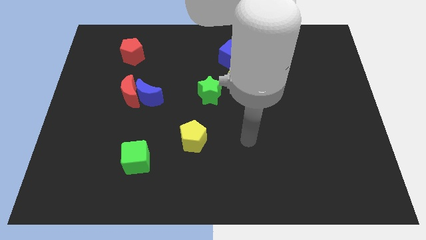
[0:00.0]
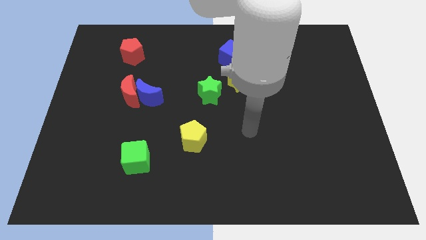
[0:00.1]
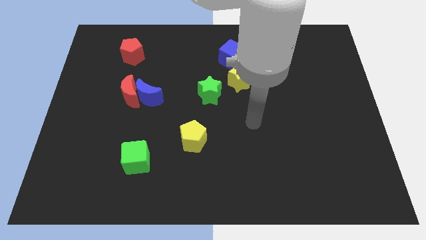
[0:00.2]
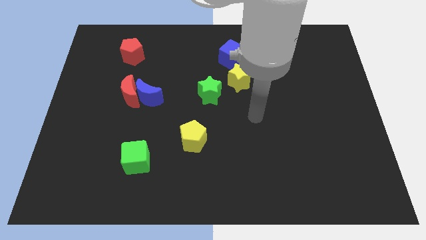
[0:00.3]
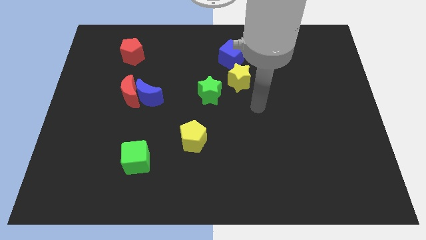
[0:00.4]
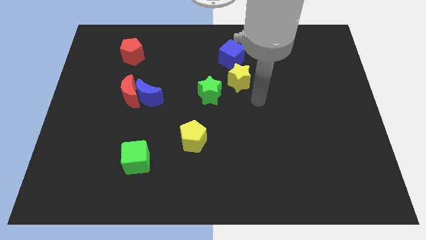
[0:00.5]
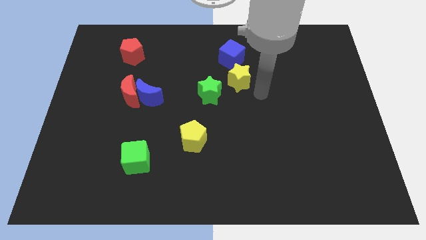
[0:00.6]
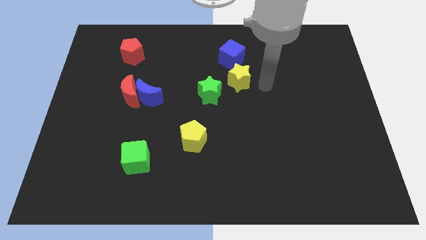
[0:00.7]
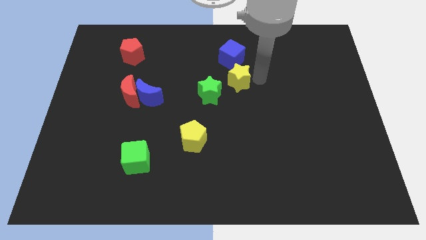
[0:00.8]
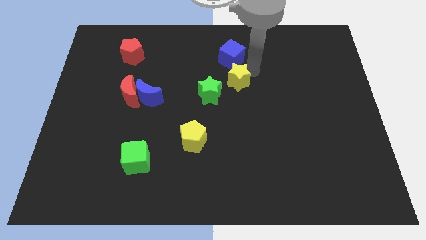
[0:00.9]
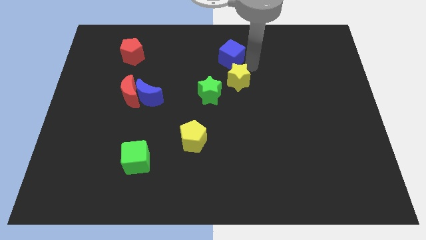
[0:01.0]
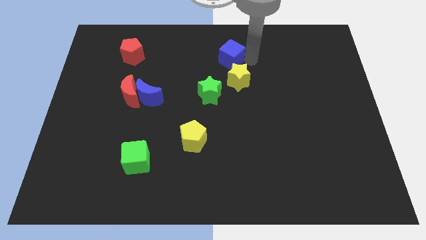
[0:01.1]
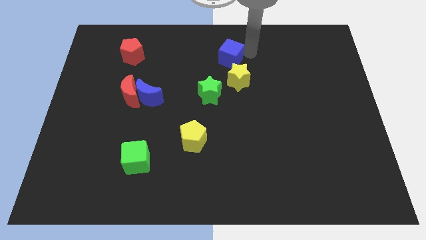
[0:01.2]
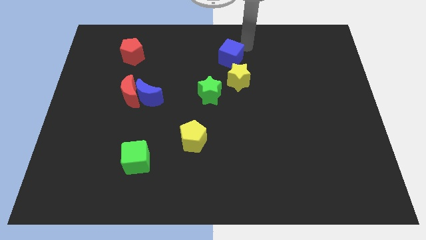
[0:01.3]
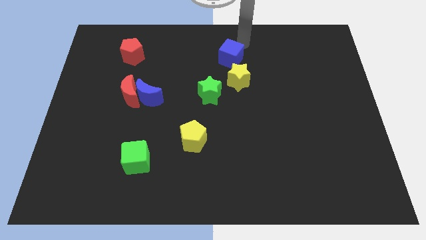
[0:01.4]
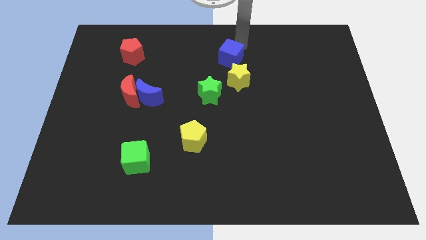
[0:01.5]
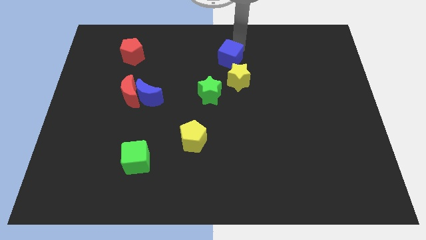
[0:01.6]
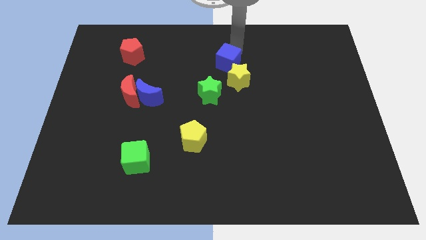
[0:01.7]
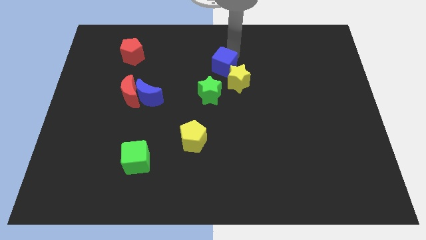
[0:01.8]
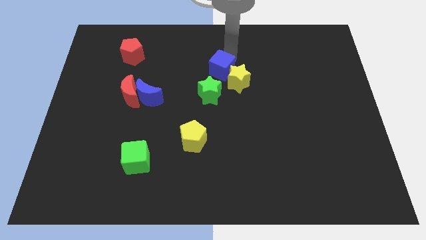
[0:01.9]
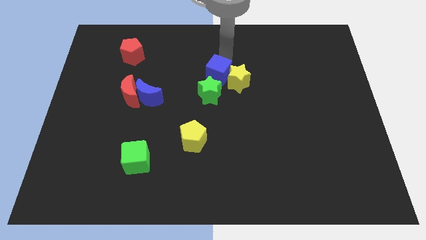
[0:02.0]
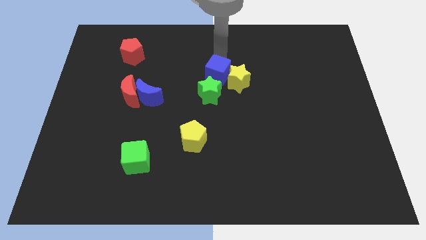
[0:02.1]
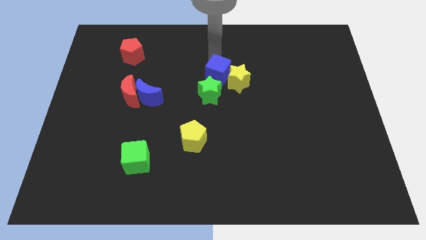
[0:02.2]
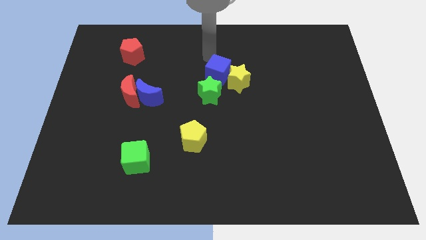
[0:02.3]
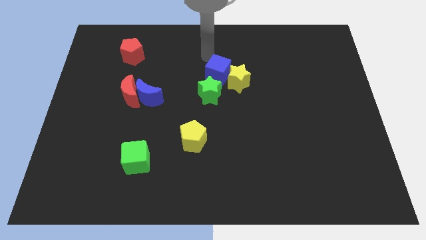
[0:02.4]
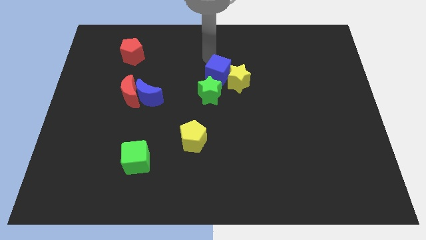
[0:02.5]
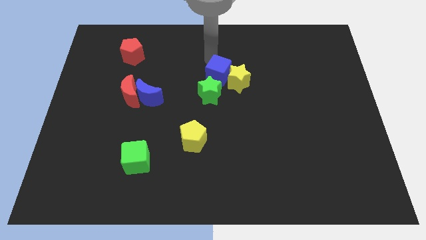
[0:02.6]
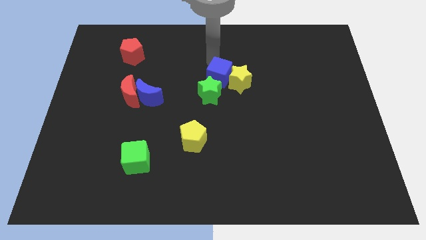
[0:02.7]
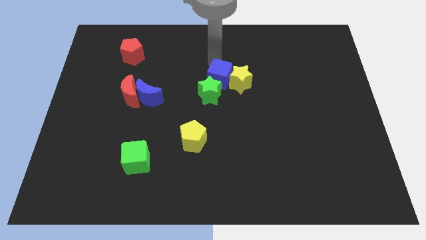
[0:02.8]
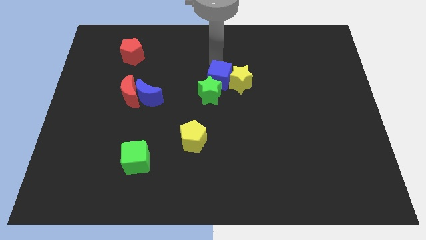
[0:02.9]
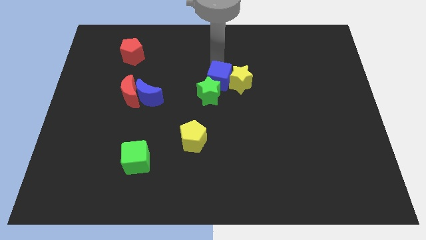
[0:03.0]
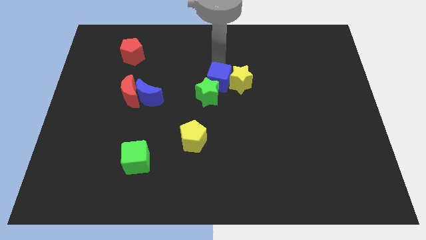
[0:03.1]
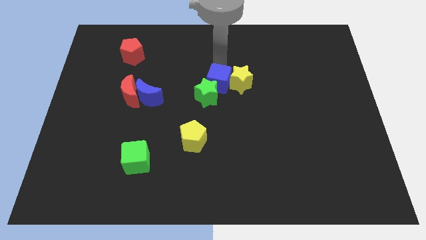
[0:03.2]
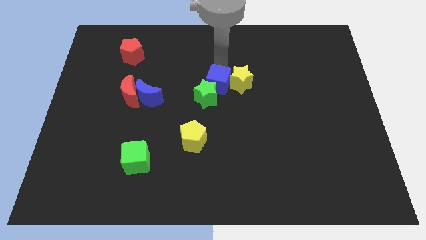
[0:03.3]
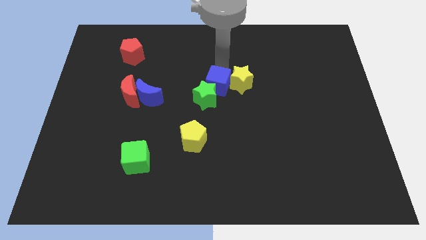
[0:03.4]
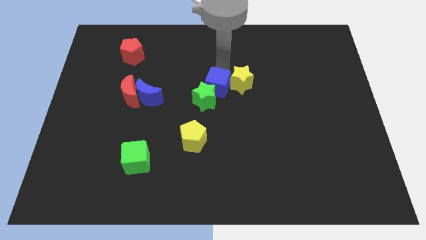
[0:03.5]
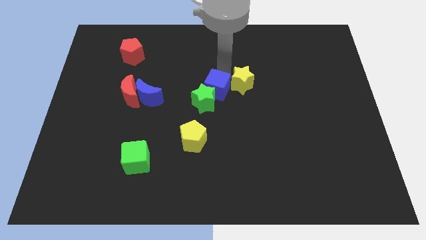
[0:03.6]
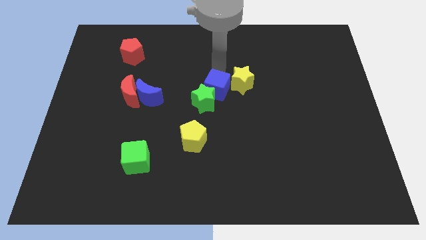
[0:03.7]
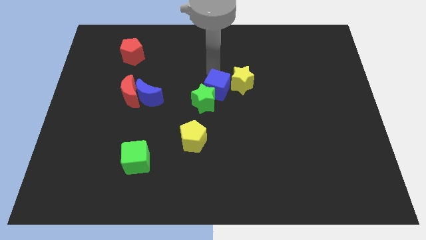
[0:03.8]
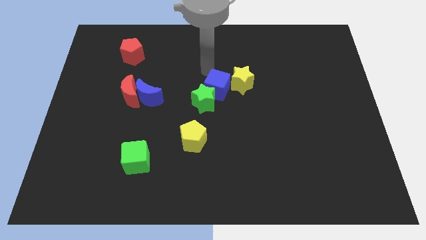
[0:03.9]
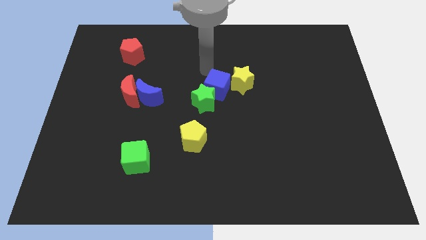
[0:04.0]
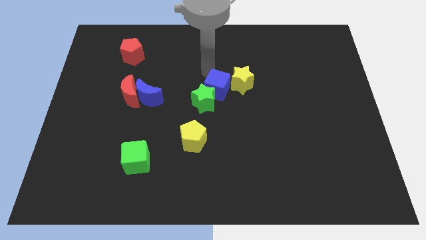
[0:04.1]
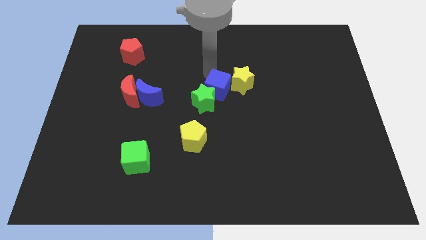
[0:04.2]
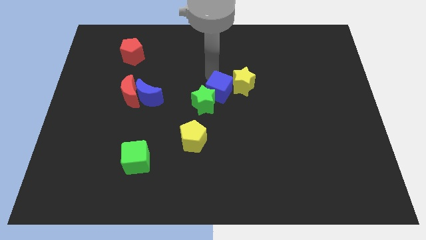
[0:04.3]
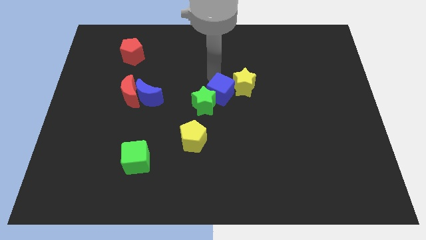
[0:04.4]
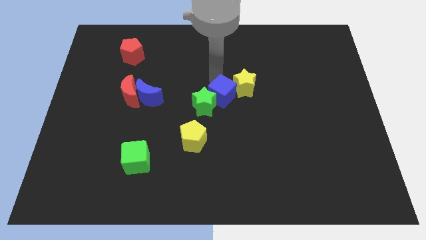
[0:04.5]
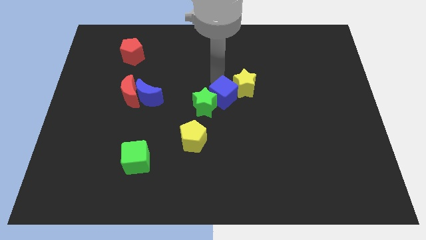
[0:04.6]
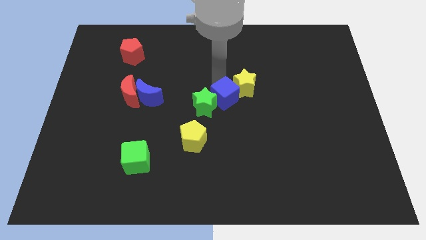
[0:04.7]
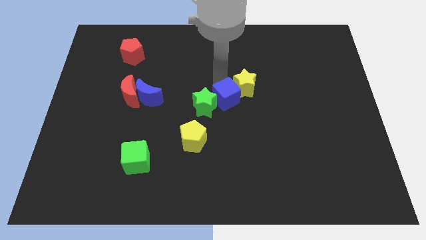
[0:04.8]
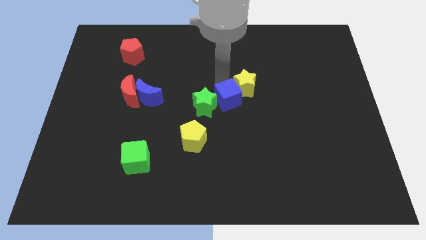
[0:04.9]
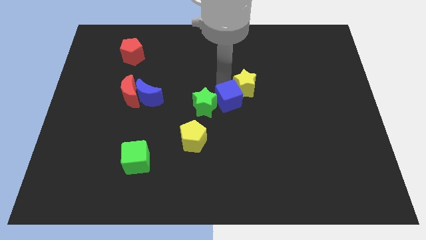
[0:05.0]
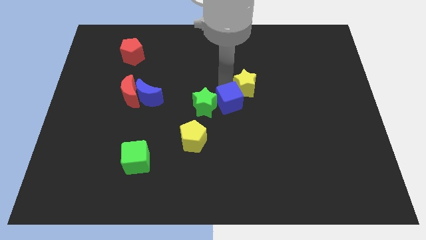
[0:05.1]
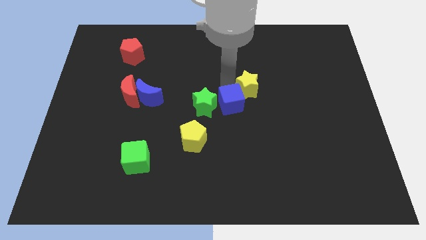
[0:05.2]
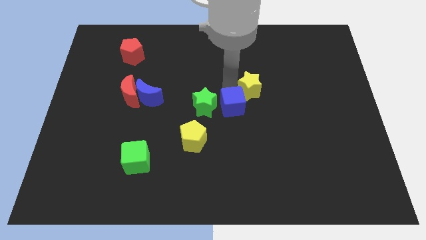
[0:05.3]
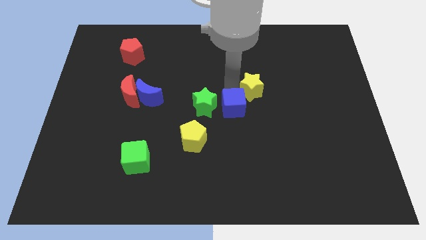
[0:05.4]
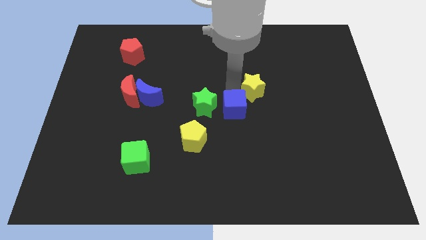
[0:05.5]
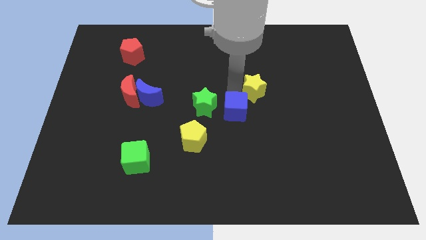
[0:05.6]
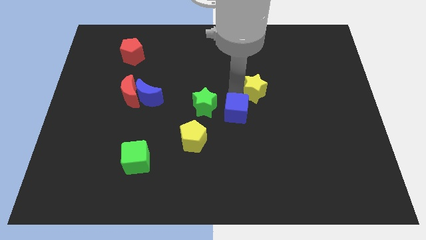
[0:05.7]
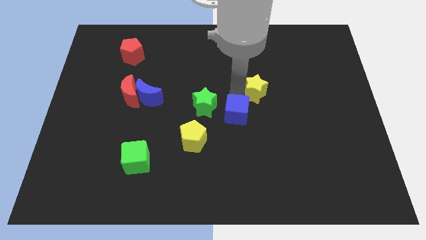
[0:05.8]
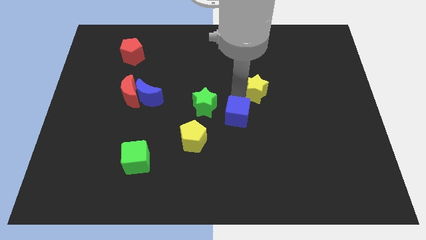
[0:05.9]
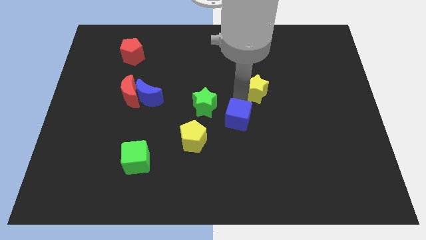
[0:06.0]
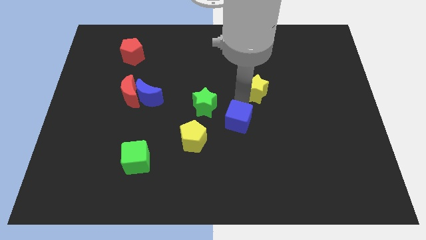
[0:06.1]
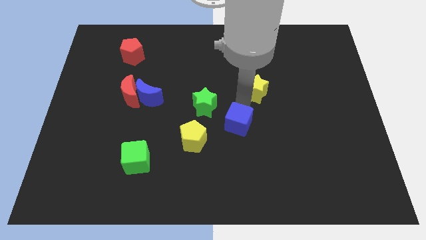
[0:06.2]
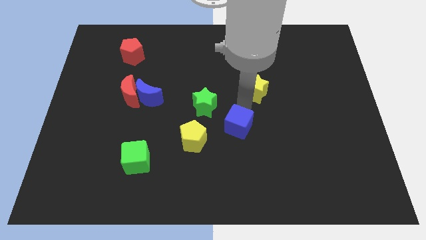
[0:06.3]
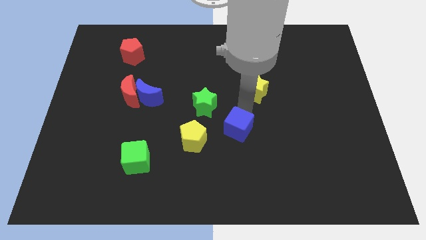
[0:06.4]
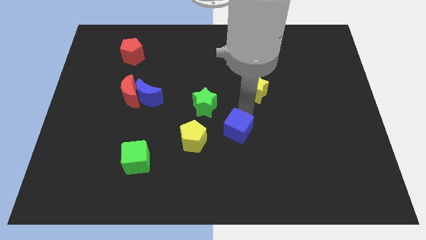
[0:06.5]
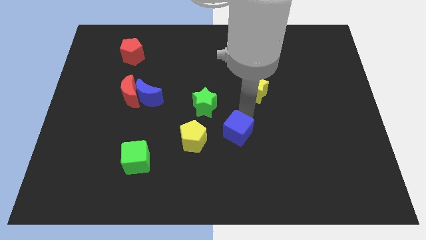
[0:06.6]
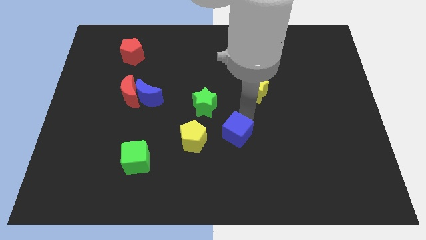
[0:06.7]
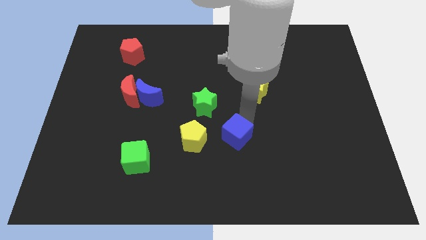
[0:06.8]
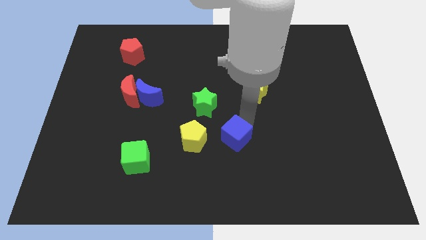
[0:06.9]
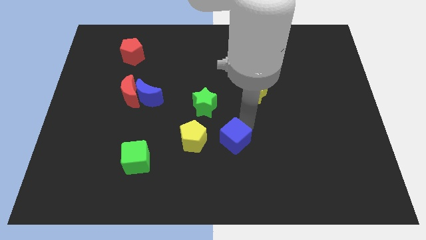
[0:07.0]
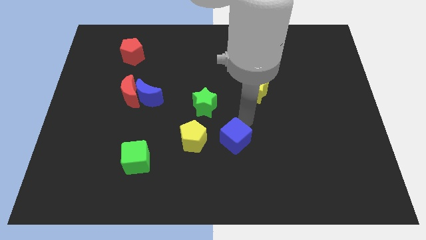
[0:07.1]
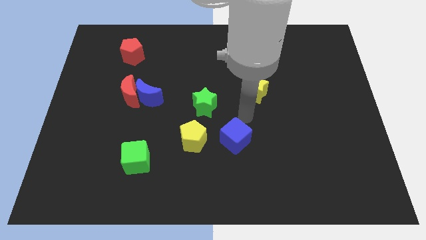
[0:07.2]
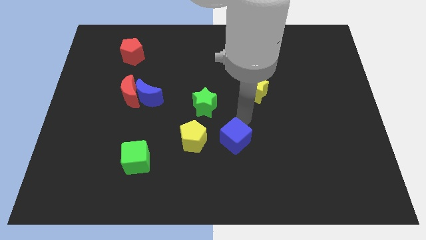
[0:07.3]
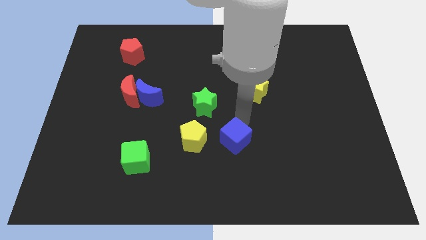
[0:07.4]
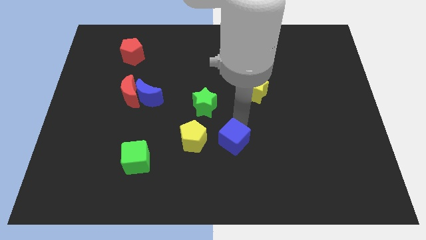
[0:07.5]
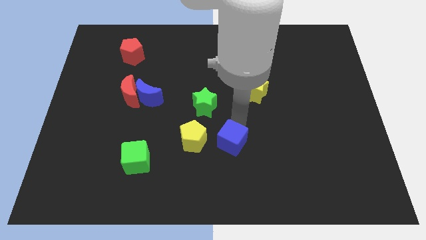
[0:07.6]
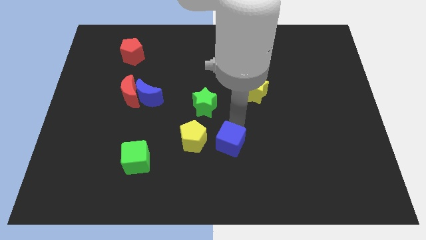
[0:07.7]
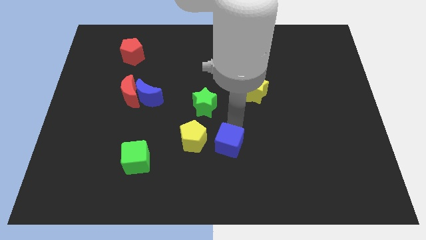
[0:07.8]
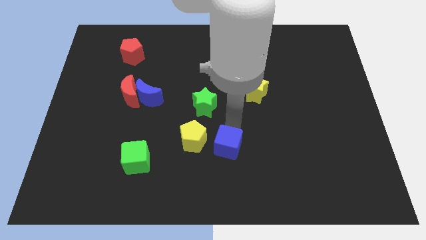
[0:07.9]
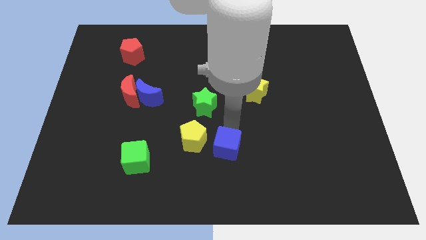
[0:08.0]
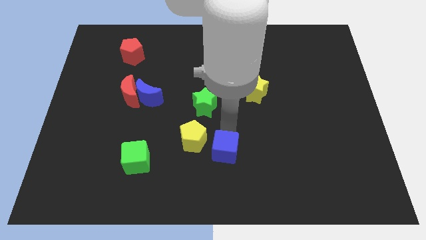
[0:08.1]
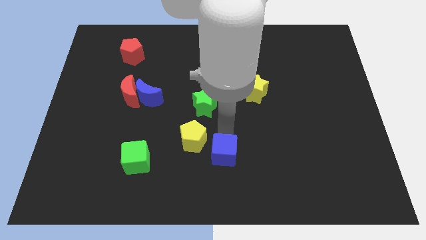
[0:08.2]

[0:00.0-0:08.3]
put the blue cube to the bottom side
